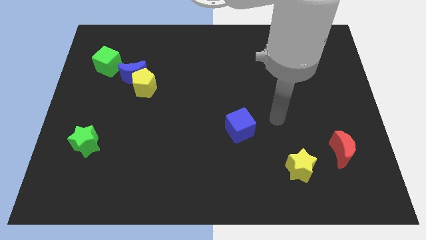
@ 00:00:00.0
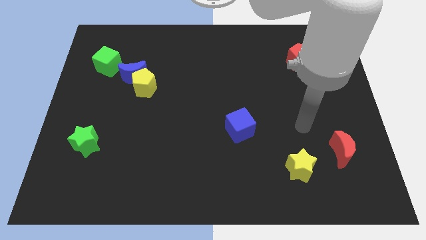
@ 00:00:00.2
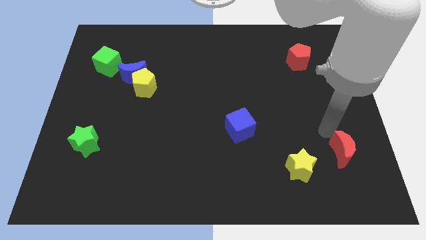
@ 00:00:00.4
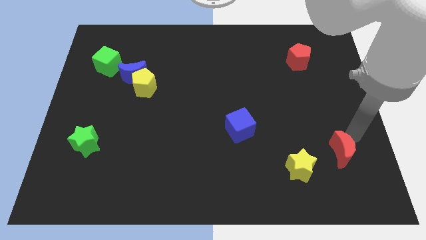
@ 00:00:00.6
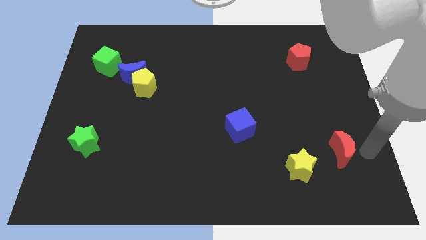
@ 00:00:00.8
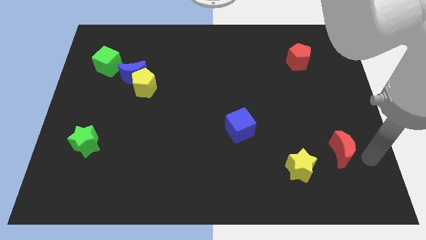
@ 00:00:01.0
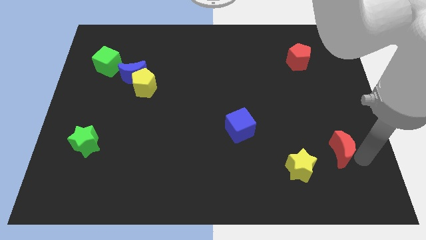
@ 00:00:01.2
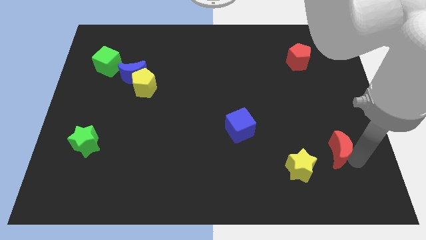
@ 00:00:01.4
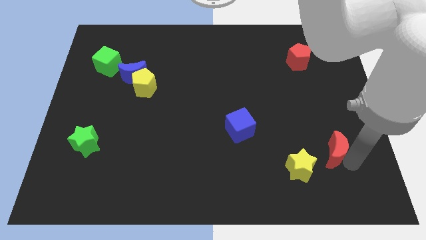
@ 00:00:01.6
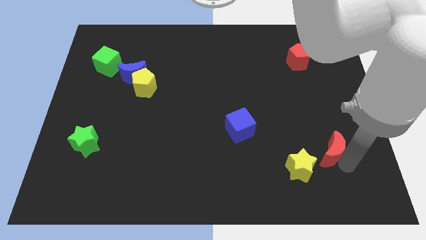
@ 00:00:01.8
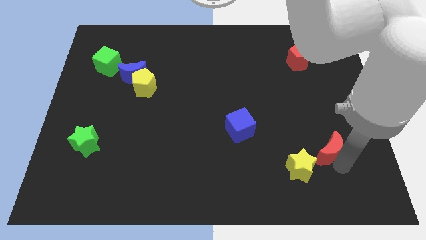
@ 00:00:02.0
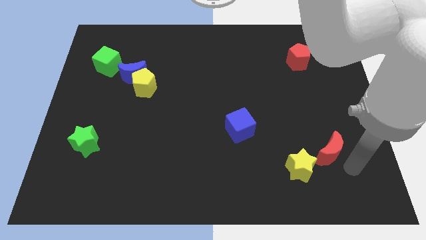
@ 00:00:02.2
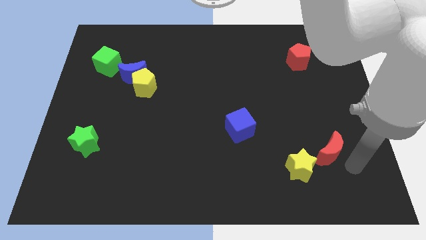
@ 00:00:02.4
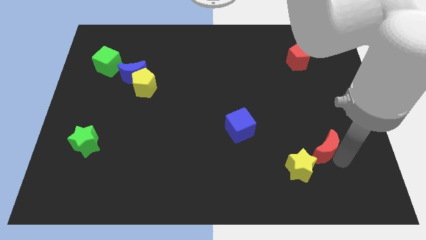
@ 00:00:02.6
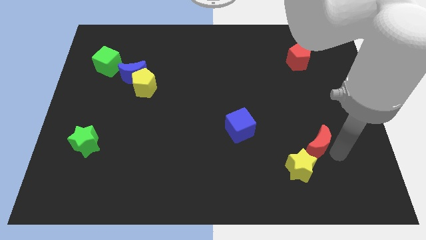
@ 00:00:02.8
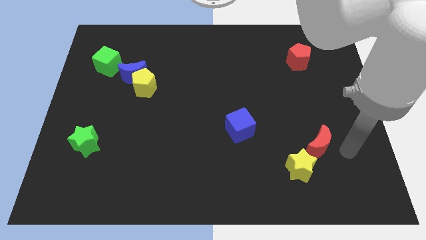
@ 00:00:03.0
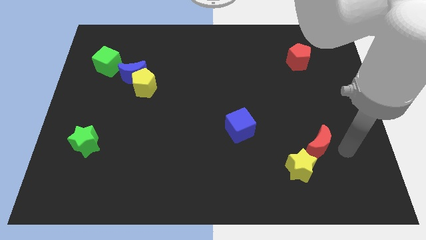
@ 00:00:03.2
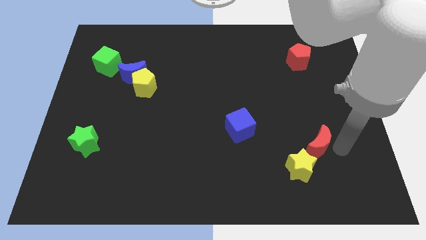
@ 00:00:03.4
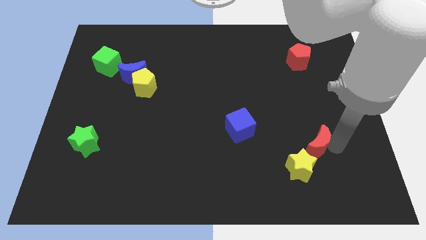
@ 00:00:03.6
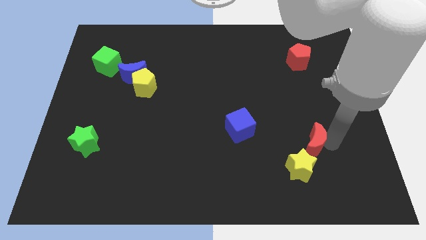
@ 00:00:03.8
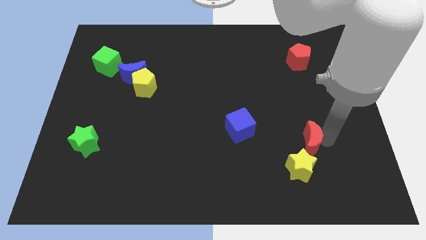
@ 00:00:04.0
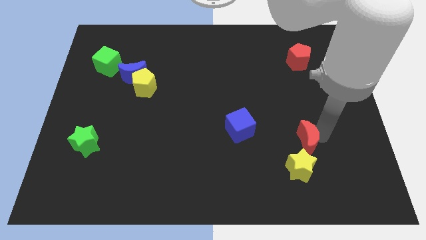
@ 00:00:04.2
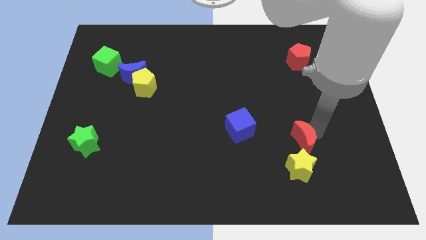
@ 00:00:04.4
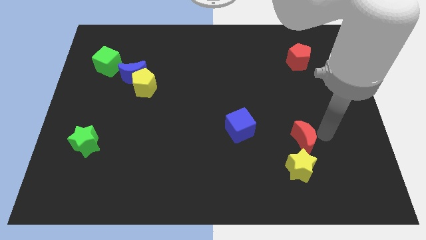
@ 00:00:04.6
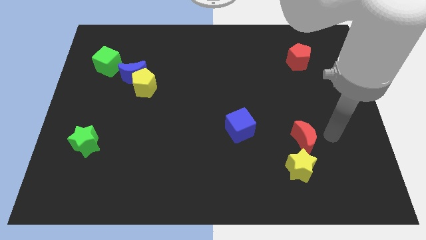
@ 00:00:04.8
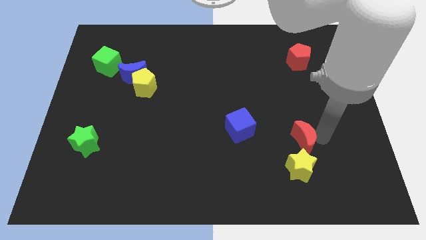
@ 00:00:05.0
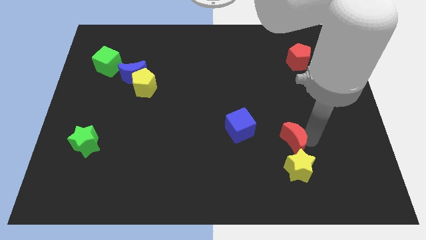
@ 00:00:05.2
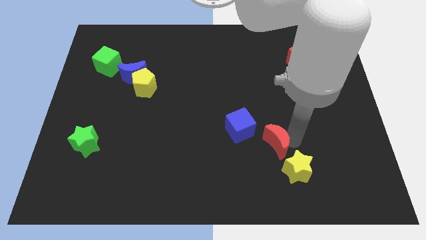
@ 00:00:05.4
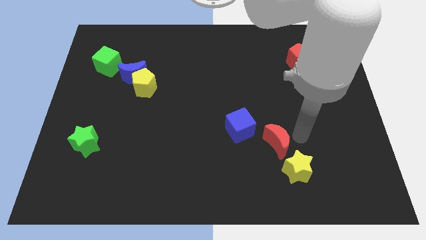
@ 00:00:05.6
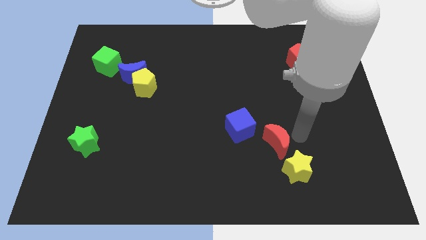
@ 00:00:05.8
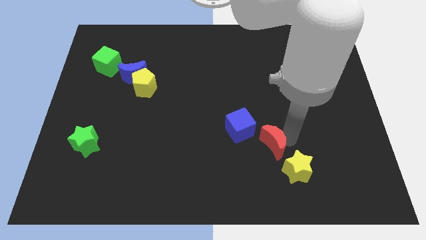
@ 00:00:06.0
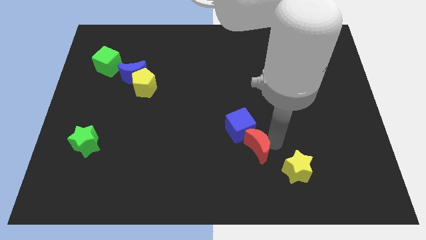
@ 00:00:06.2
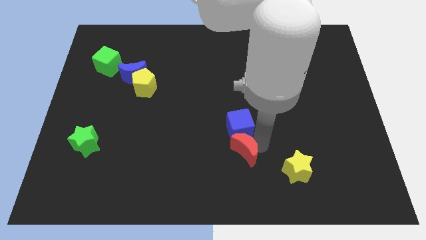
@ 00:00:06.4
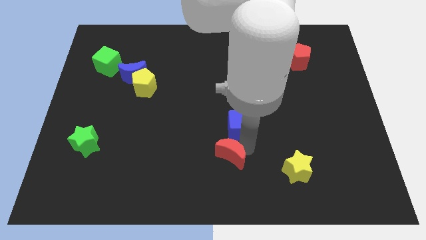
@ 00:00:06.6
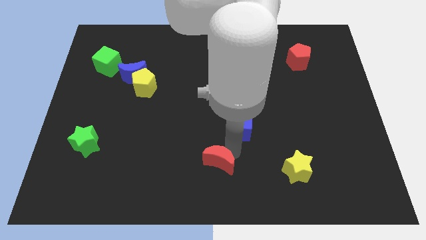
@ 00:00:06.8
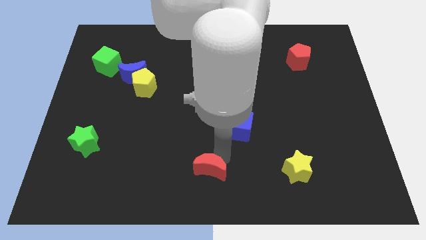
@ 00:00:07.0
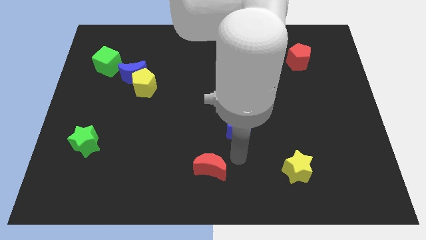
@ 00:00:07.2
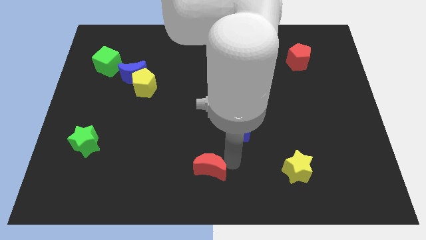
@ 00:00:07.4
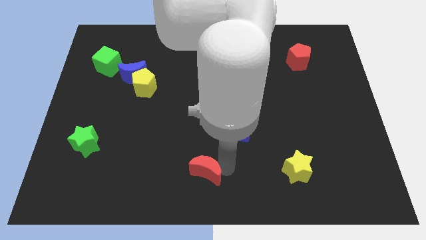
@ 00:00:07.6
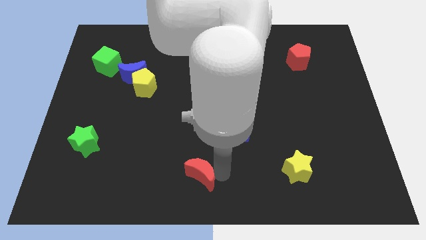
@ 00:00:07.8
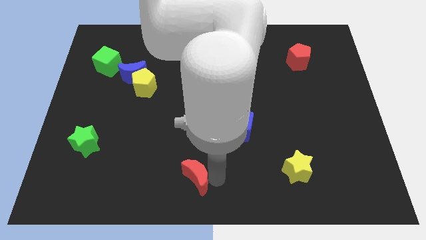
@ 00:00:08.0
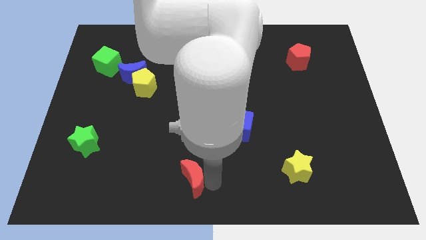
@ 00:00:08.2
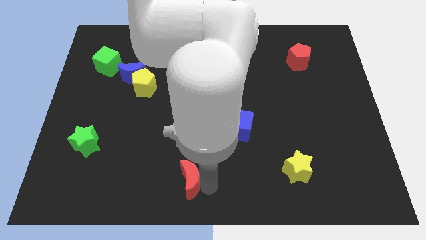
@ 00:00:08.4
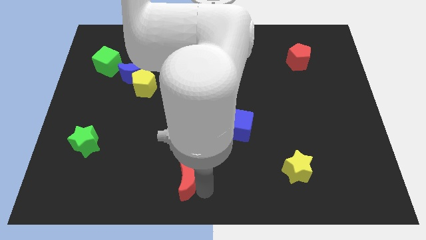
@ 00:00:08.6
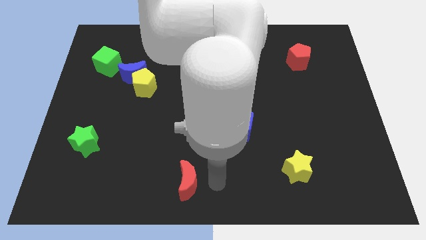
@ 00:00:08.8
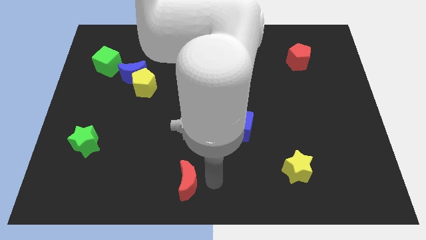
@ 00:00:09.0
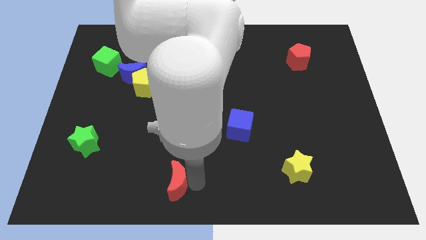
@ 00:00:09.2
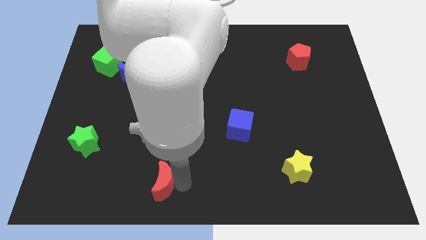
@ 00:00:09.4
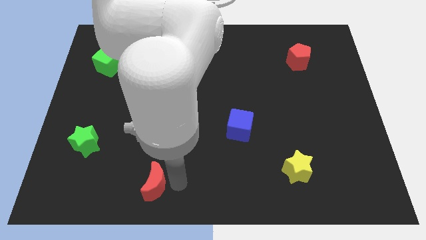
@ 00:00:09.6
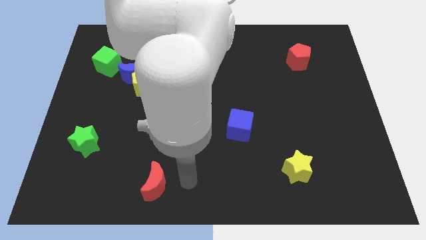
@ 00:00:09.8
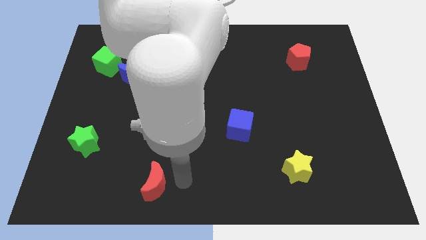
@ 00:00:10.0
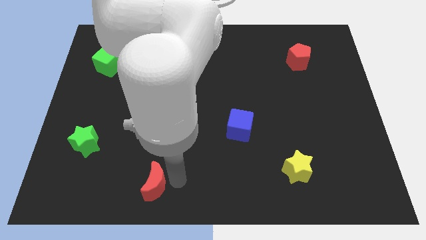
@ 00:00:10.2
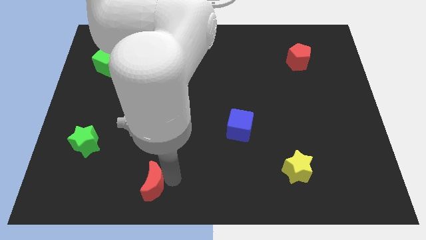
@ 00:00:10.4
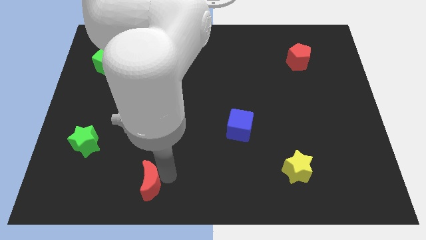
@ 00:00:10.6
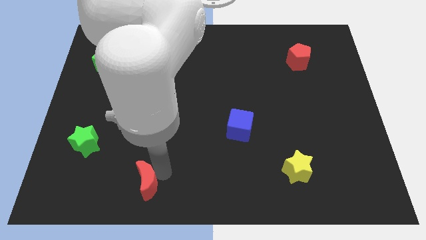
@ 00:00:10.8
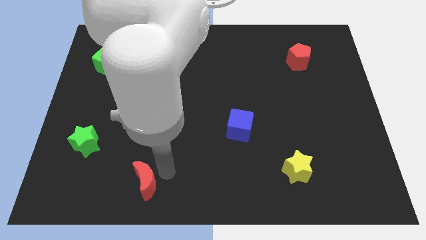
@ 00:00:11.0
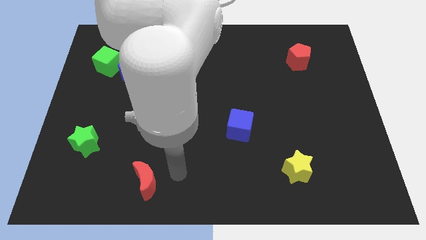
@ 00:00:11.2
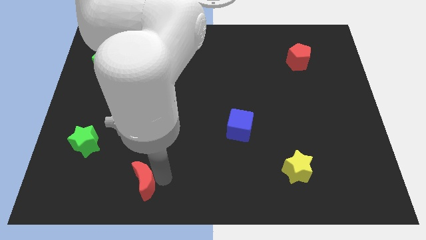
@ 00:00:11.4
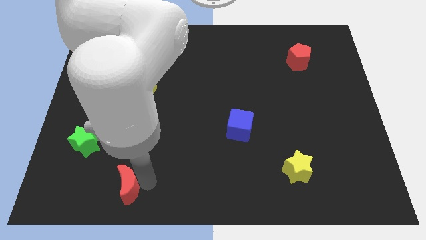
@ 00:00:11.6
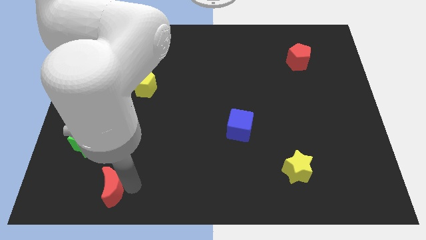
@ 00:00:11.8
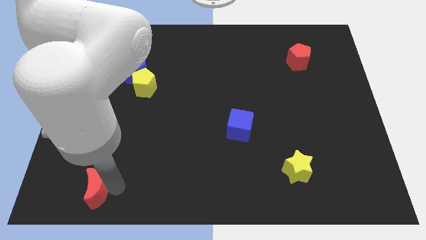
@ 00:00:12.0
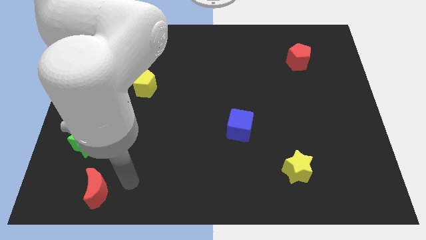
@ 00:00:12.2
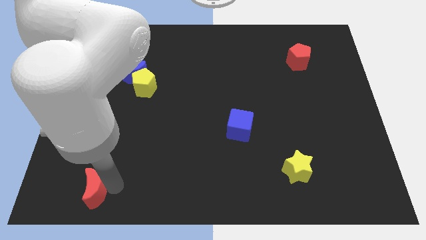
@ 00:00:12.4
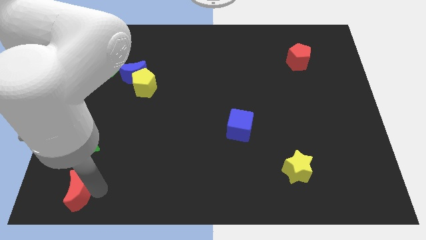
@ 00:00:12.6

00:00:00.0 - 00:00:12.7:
push the red moon to the lower left corner
